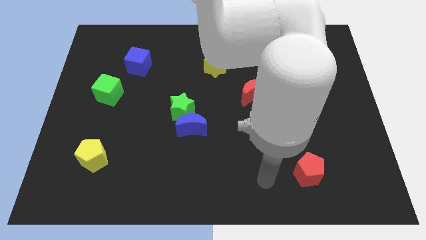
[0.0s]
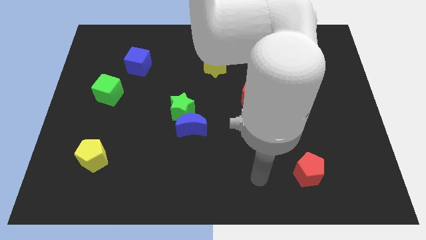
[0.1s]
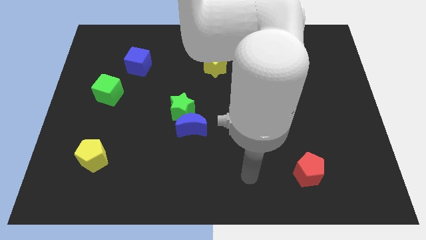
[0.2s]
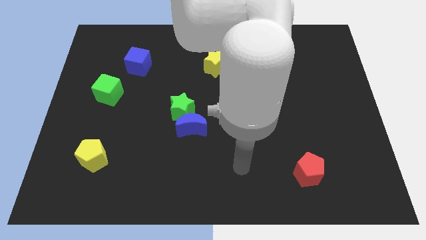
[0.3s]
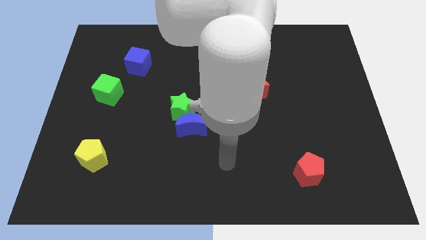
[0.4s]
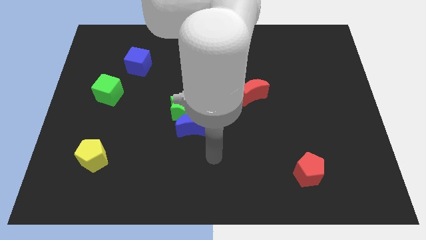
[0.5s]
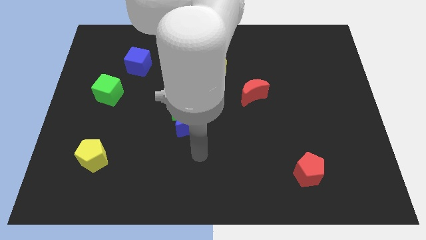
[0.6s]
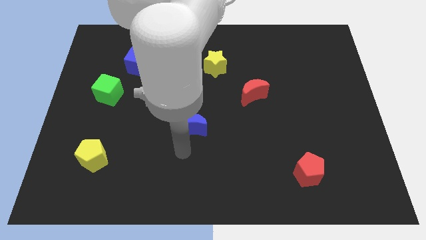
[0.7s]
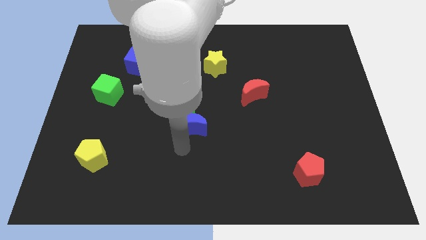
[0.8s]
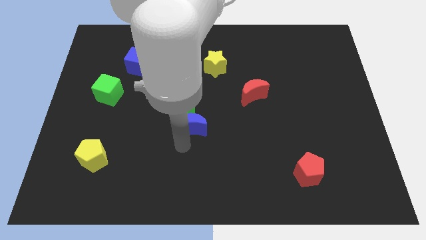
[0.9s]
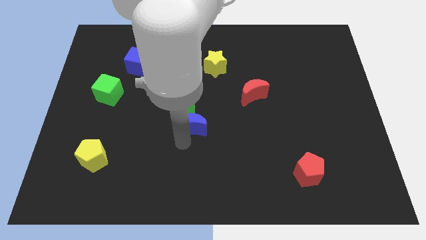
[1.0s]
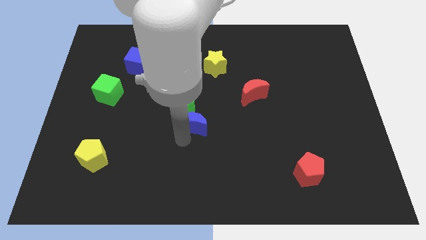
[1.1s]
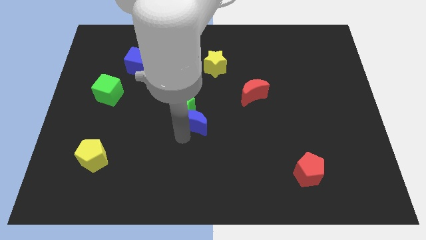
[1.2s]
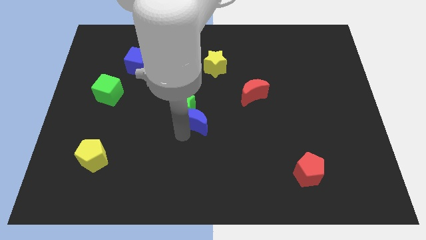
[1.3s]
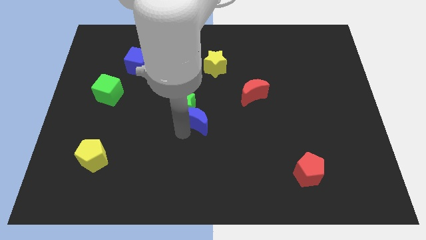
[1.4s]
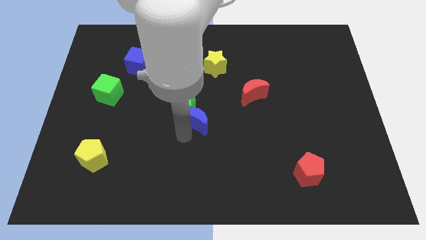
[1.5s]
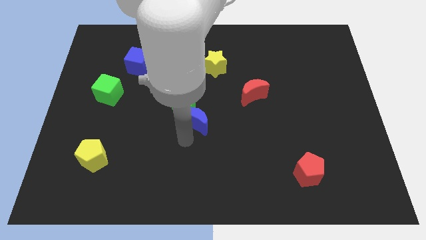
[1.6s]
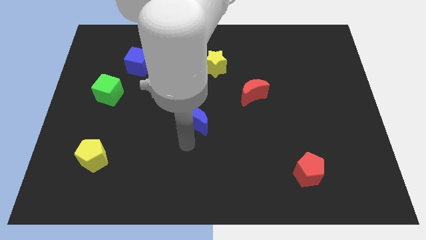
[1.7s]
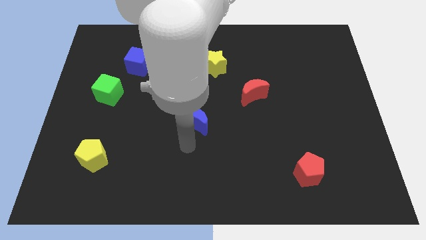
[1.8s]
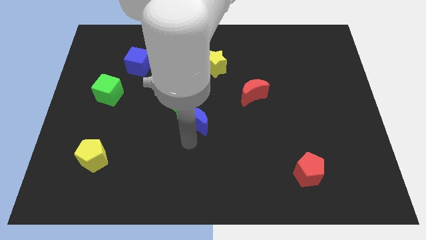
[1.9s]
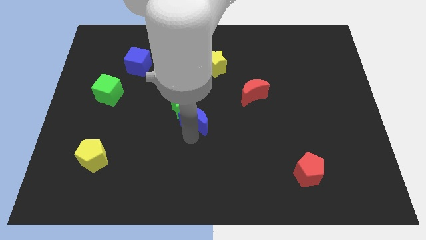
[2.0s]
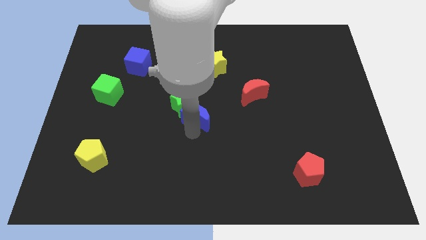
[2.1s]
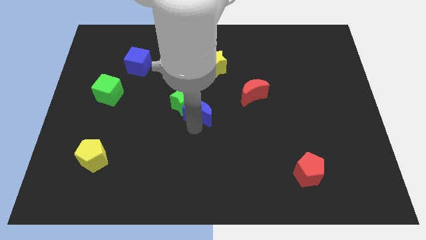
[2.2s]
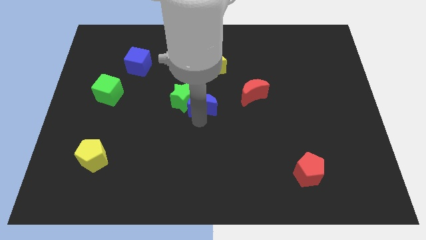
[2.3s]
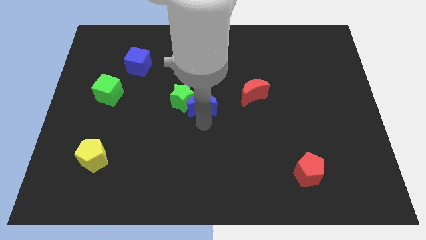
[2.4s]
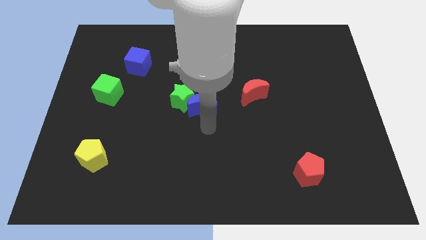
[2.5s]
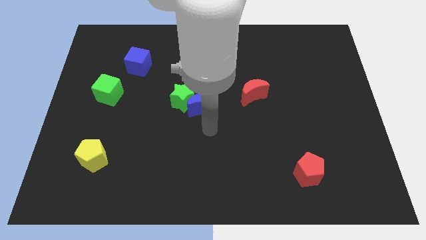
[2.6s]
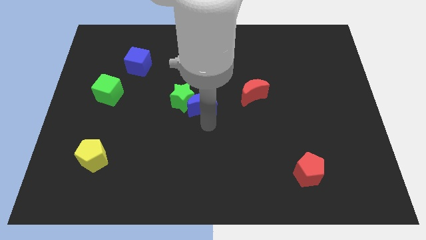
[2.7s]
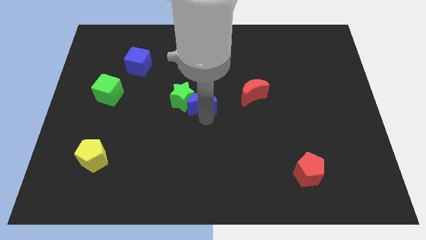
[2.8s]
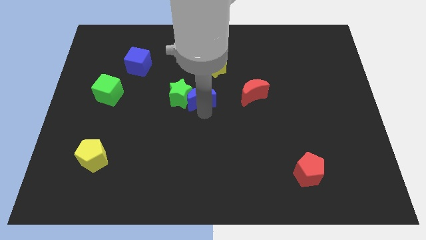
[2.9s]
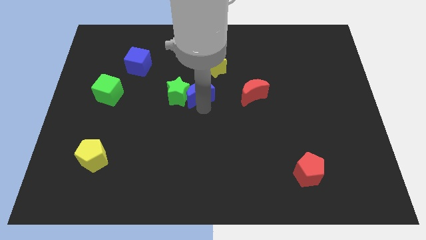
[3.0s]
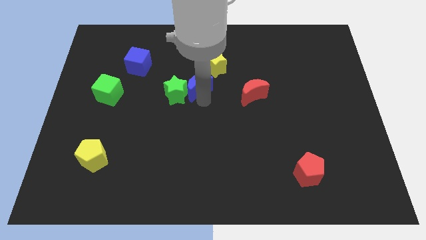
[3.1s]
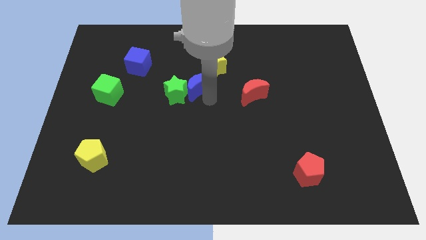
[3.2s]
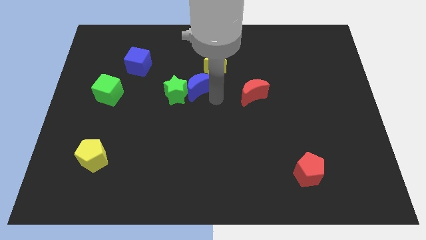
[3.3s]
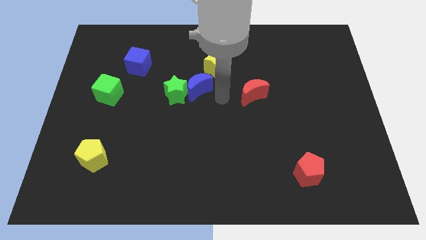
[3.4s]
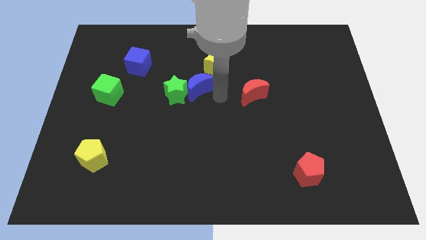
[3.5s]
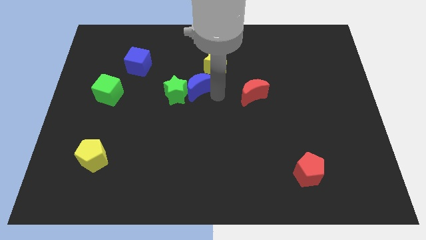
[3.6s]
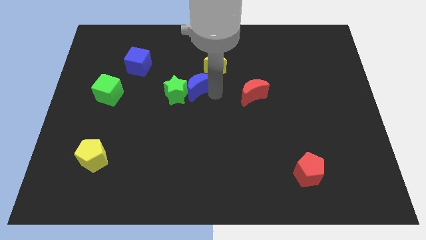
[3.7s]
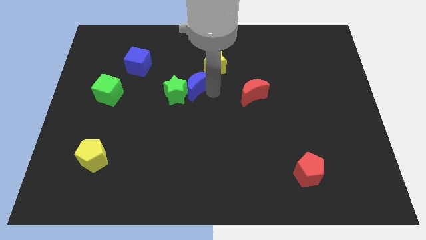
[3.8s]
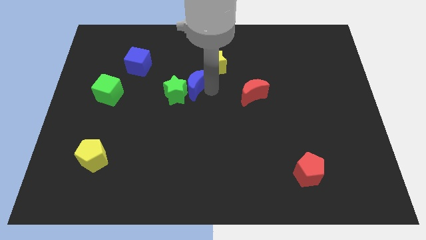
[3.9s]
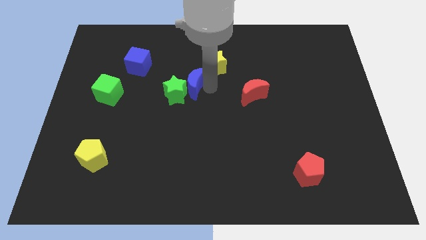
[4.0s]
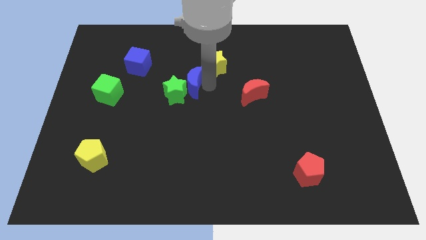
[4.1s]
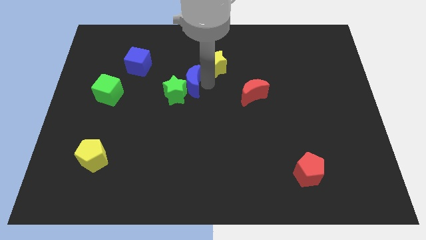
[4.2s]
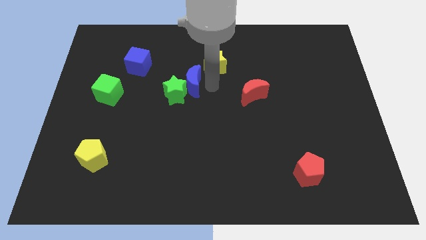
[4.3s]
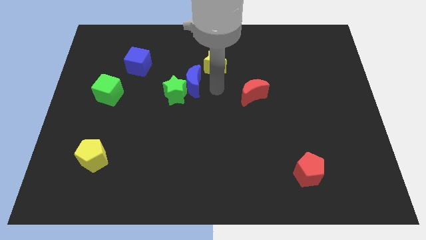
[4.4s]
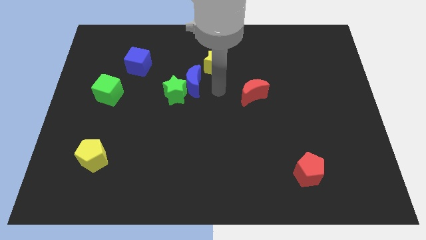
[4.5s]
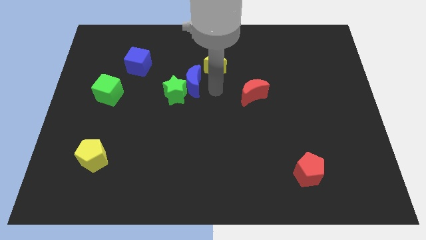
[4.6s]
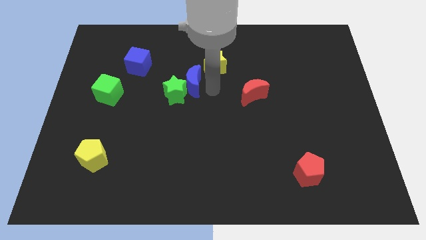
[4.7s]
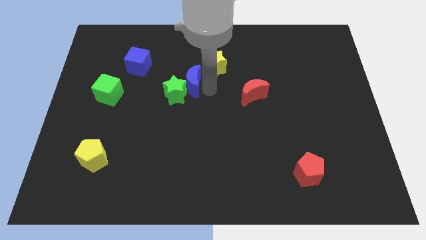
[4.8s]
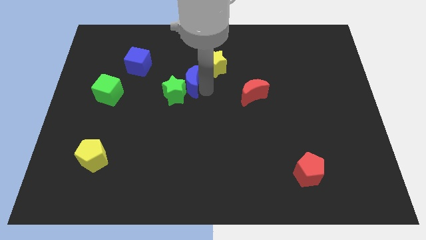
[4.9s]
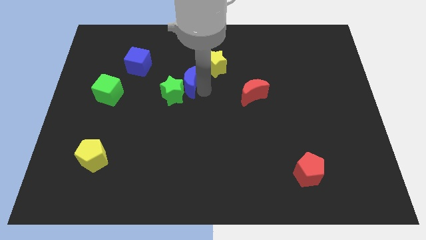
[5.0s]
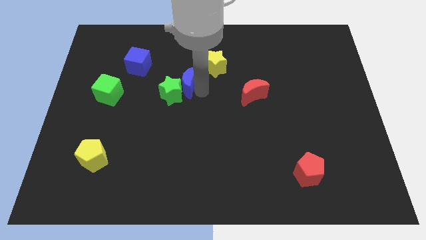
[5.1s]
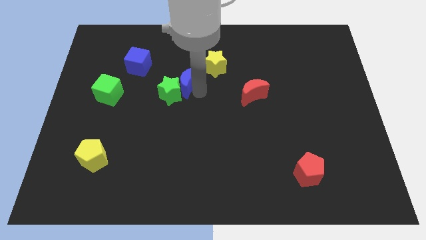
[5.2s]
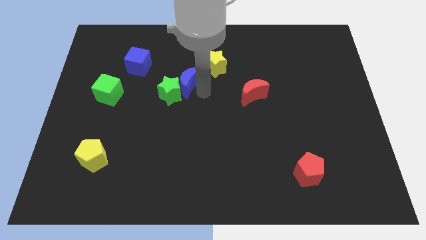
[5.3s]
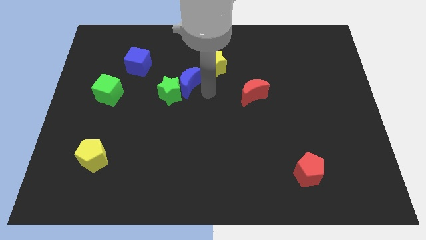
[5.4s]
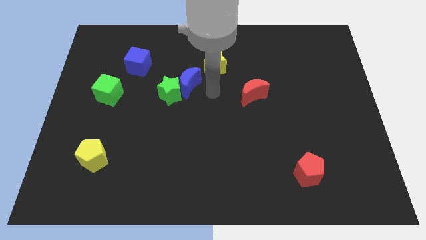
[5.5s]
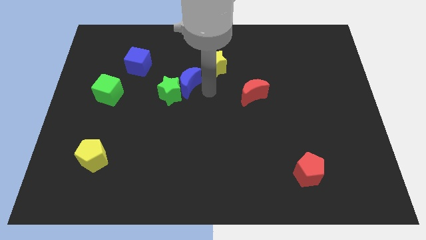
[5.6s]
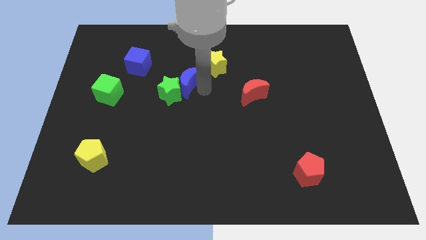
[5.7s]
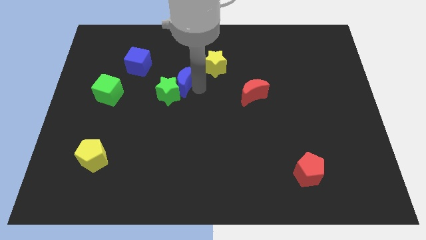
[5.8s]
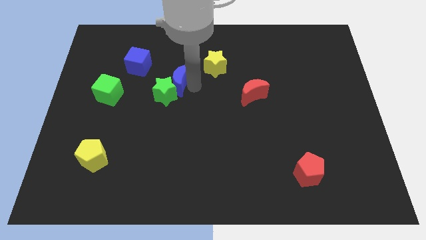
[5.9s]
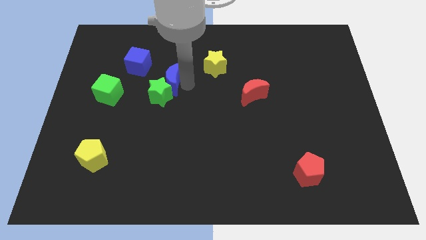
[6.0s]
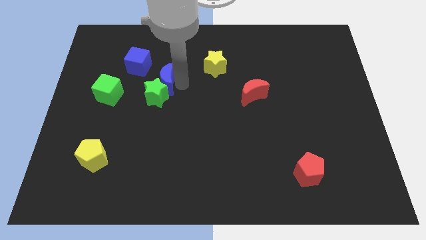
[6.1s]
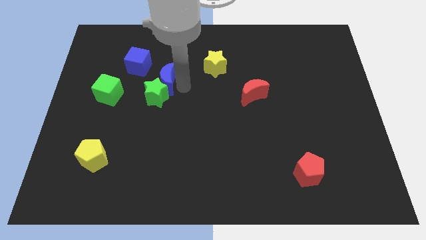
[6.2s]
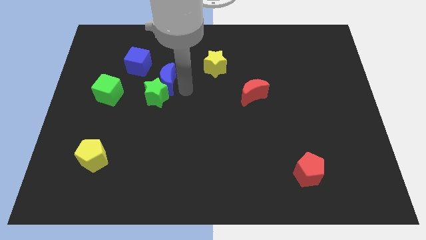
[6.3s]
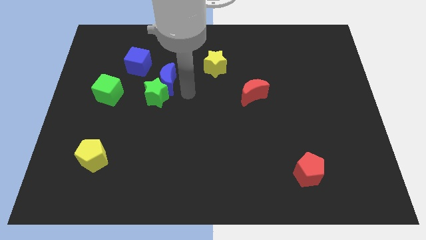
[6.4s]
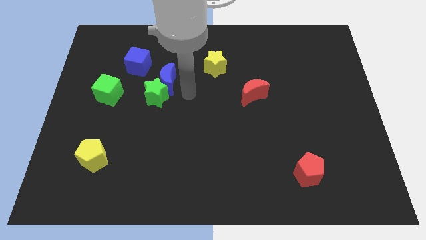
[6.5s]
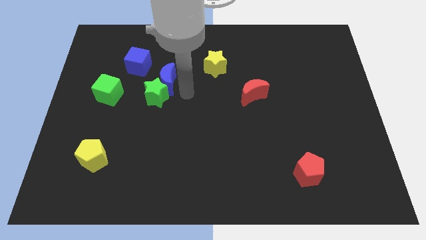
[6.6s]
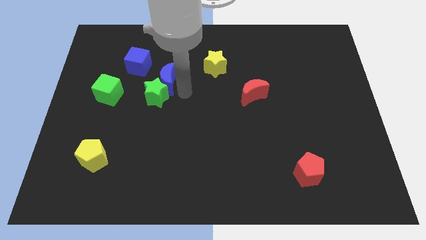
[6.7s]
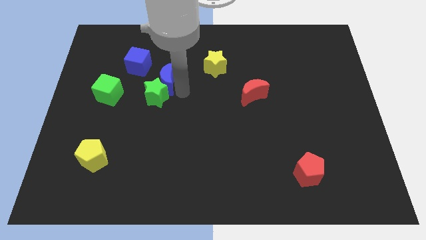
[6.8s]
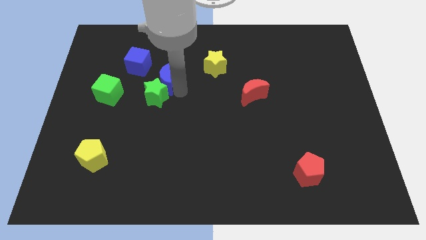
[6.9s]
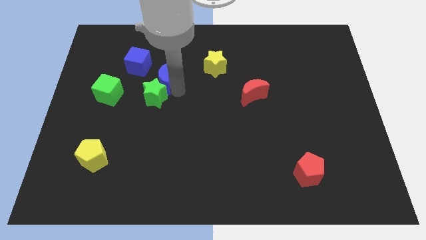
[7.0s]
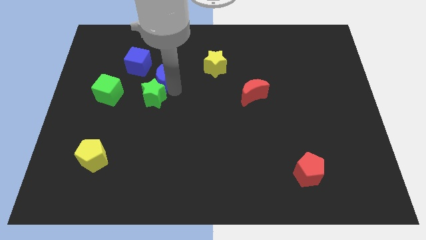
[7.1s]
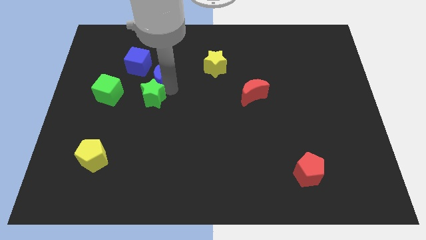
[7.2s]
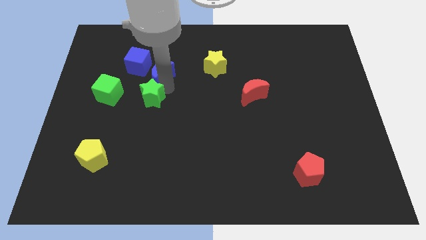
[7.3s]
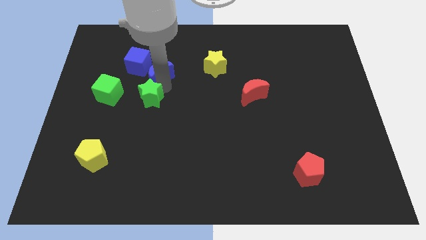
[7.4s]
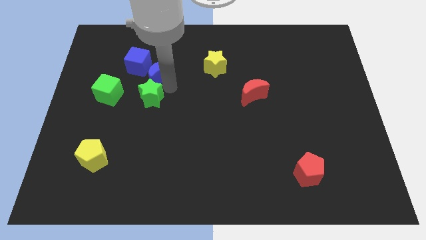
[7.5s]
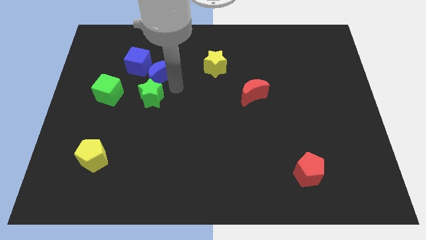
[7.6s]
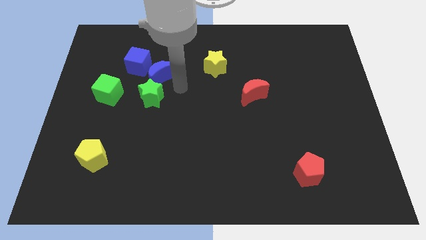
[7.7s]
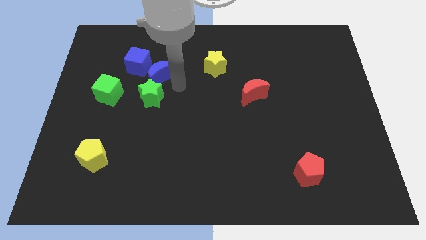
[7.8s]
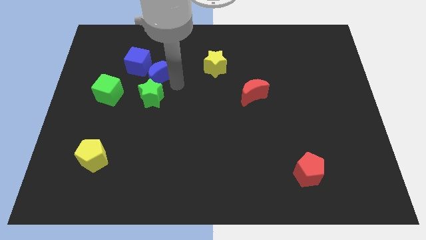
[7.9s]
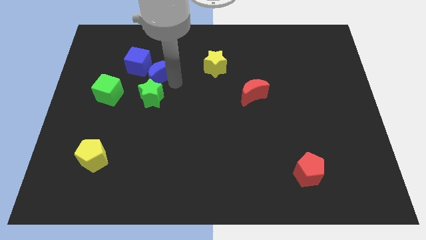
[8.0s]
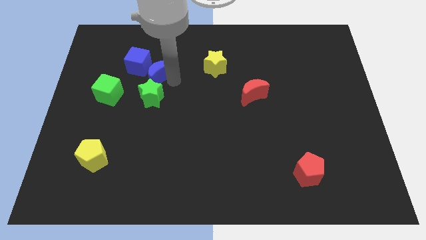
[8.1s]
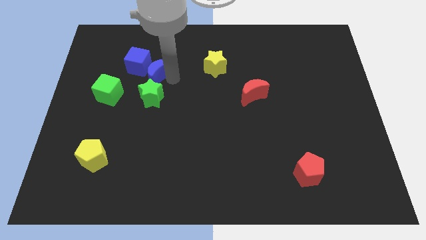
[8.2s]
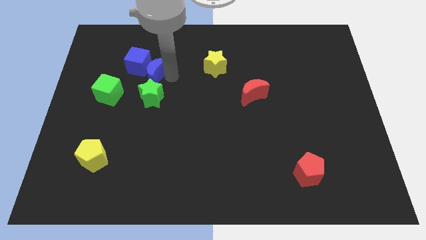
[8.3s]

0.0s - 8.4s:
push the blue moon close to the blue cube
